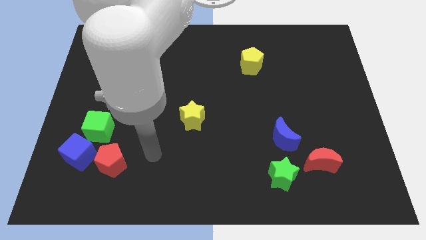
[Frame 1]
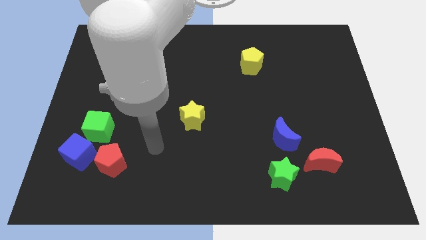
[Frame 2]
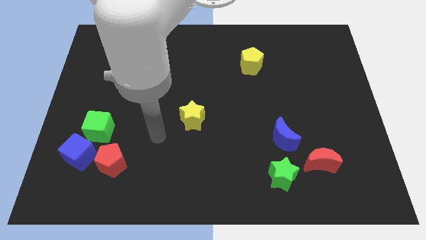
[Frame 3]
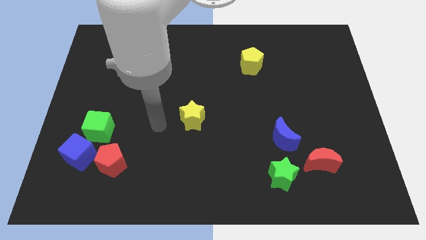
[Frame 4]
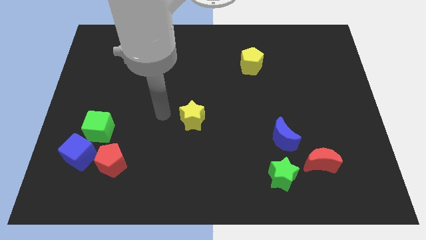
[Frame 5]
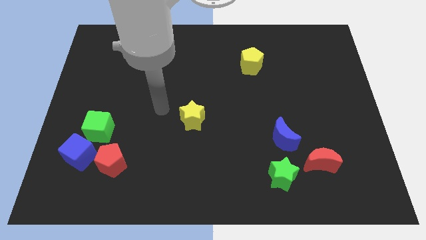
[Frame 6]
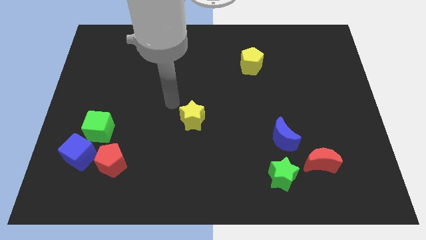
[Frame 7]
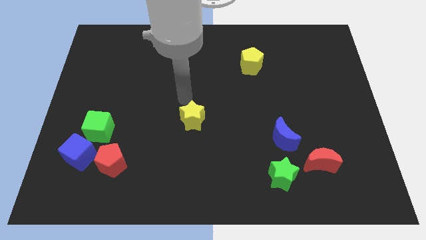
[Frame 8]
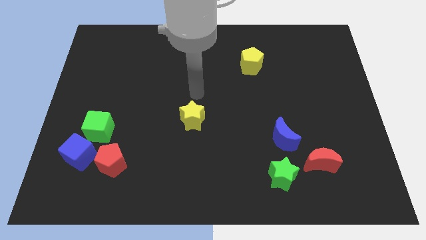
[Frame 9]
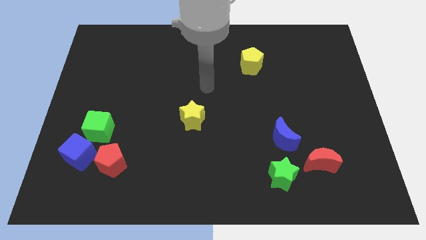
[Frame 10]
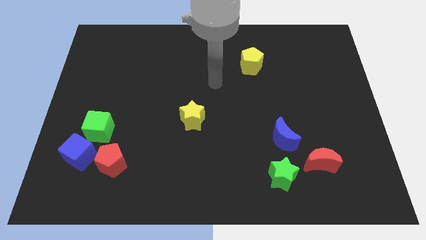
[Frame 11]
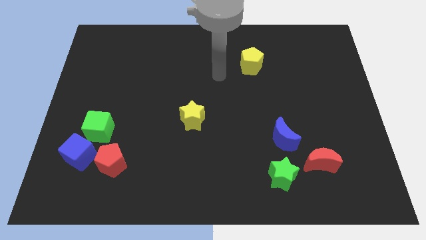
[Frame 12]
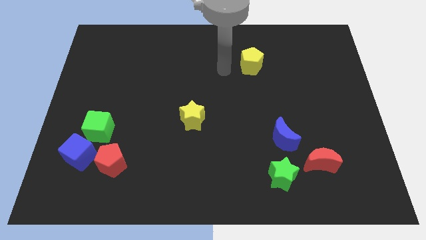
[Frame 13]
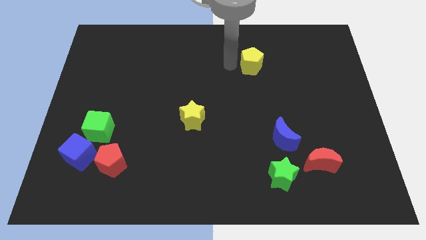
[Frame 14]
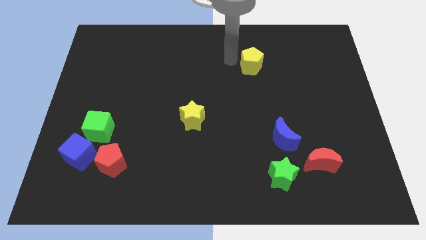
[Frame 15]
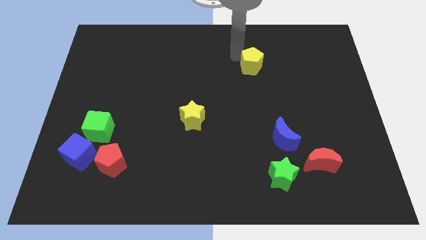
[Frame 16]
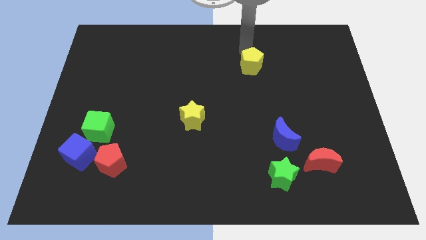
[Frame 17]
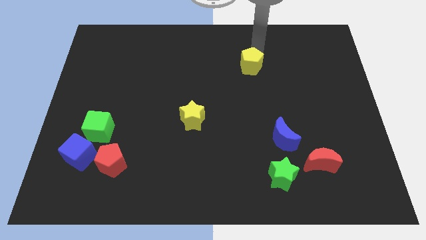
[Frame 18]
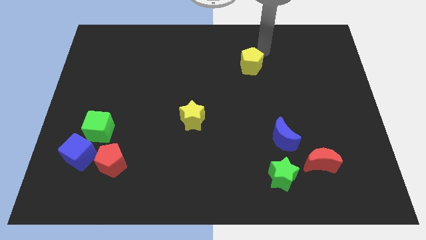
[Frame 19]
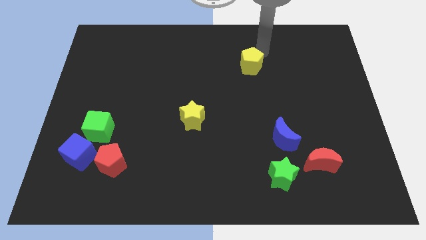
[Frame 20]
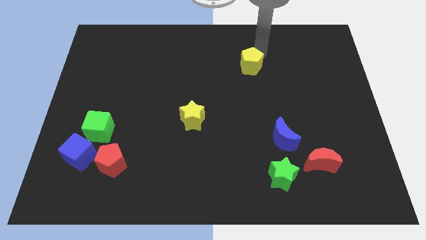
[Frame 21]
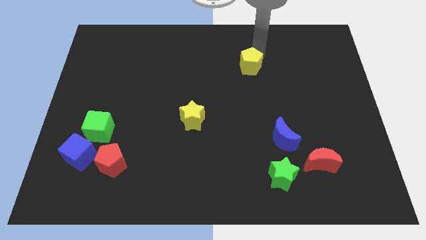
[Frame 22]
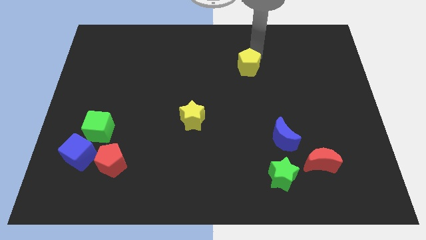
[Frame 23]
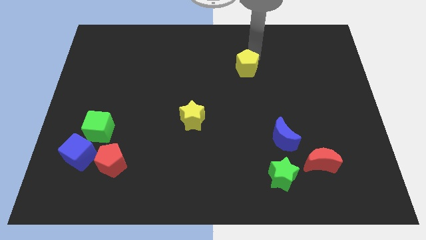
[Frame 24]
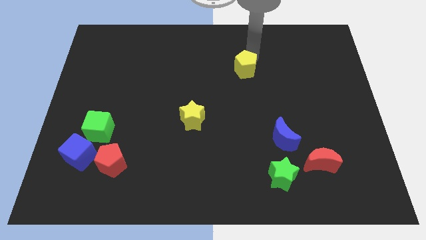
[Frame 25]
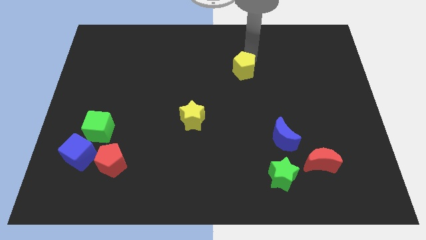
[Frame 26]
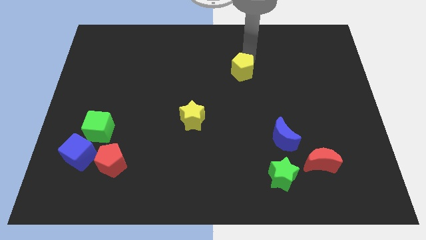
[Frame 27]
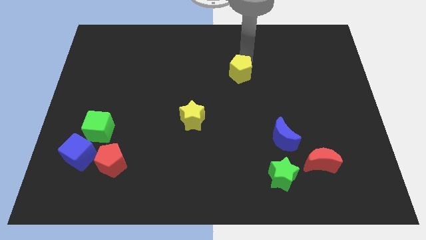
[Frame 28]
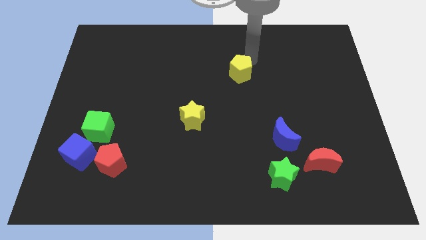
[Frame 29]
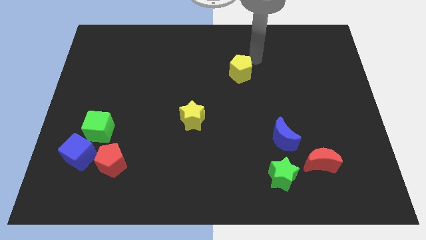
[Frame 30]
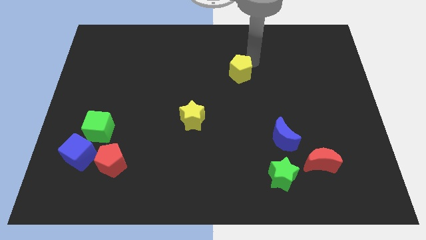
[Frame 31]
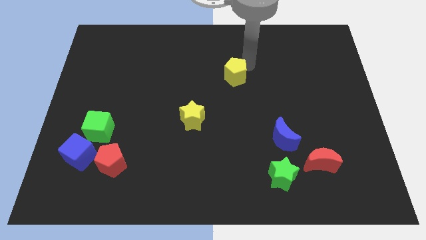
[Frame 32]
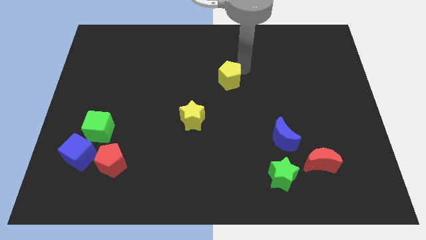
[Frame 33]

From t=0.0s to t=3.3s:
push the yellow pentagon somewhat down and to the left diagonally

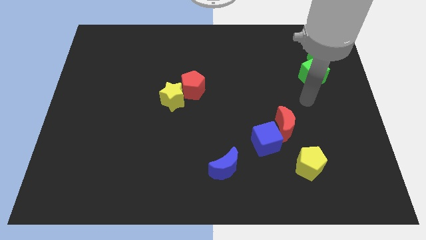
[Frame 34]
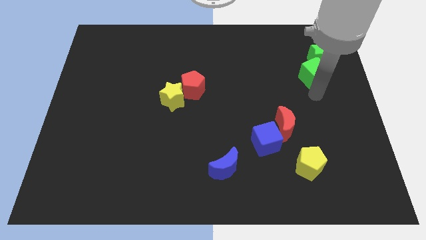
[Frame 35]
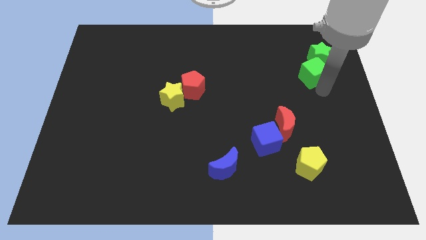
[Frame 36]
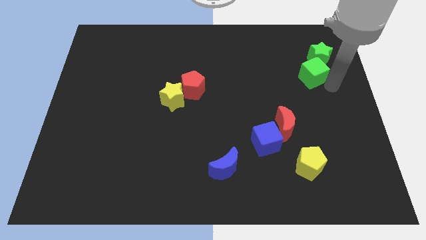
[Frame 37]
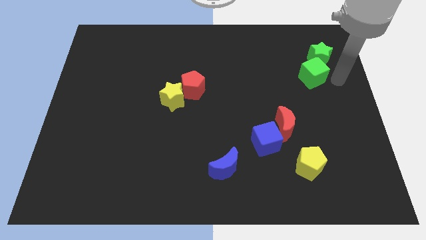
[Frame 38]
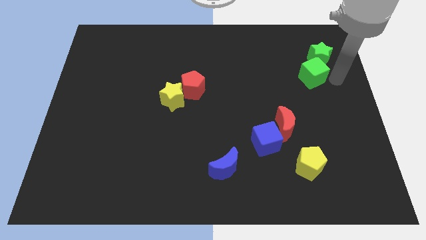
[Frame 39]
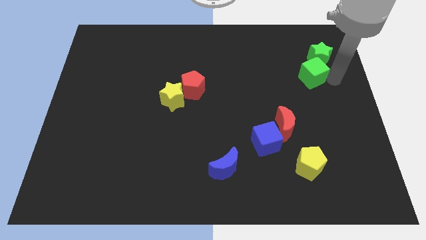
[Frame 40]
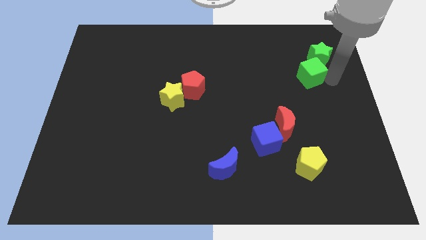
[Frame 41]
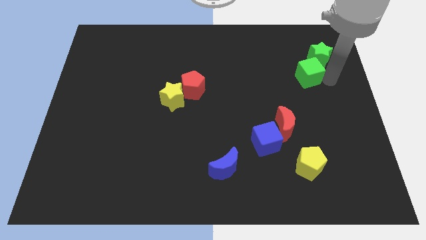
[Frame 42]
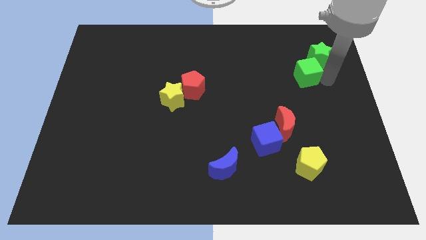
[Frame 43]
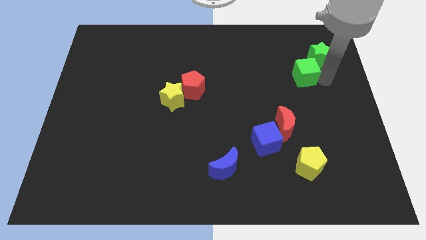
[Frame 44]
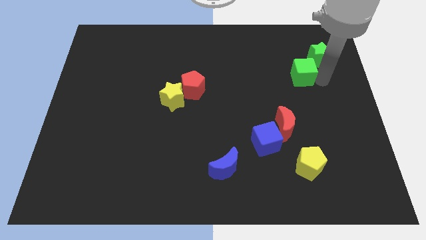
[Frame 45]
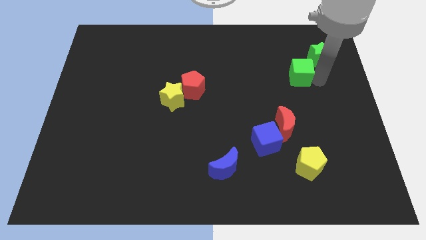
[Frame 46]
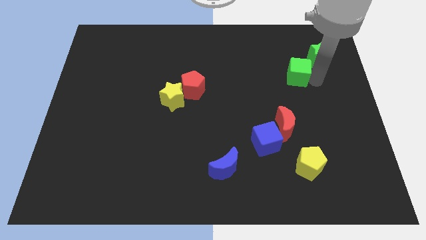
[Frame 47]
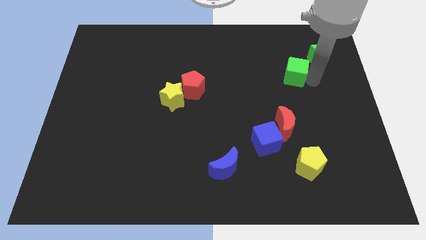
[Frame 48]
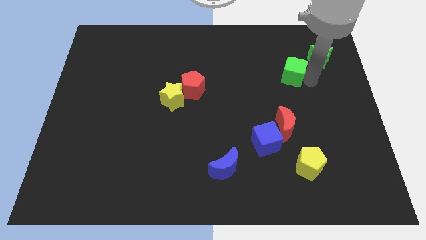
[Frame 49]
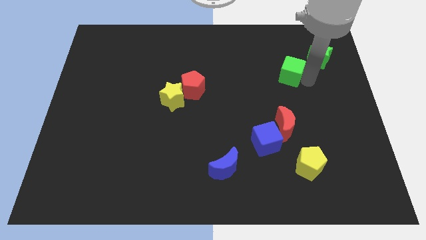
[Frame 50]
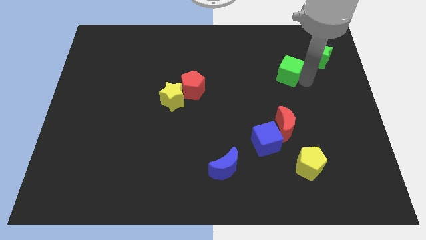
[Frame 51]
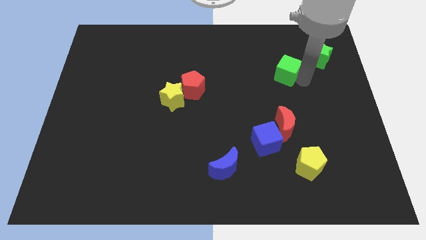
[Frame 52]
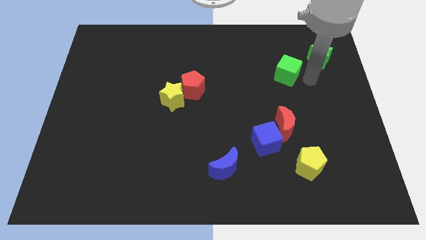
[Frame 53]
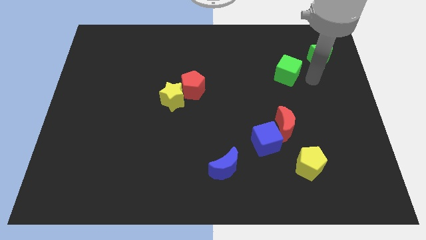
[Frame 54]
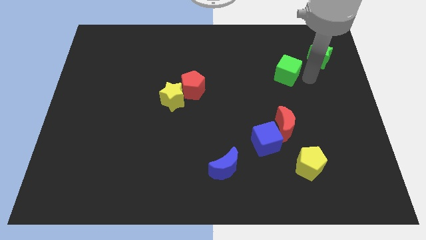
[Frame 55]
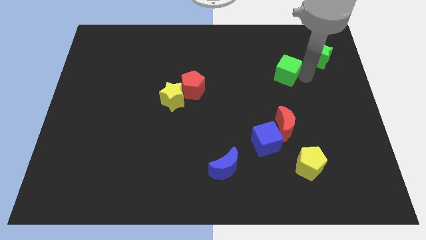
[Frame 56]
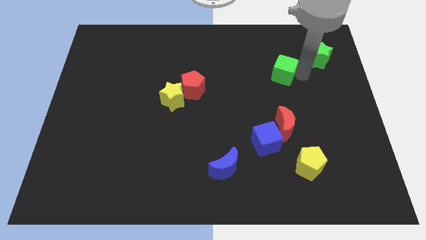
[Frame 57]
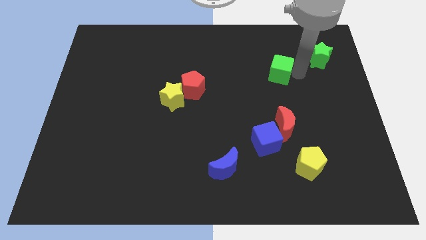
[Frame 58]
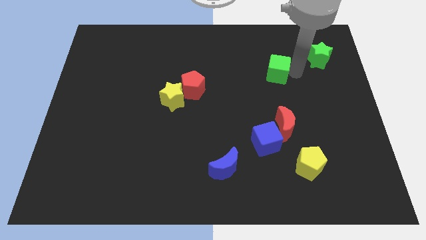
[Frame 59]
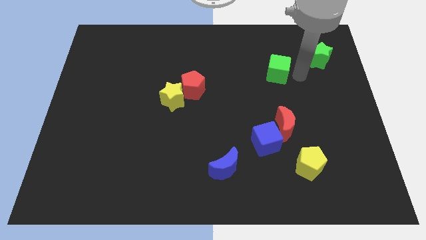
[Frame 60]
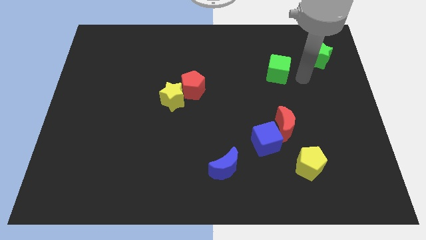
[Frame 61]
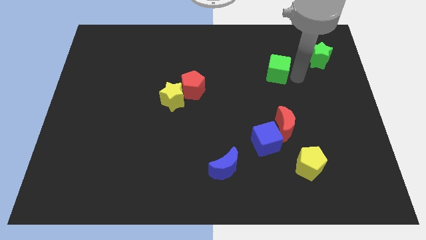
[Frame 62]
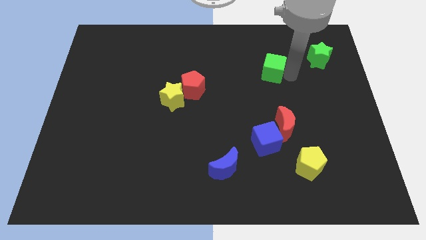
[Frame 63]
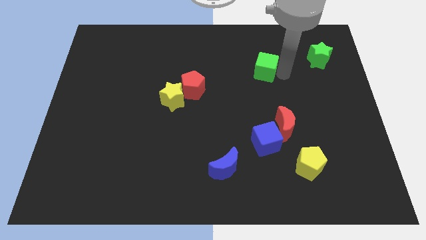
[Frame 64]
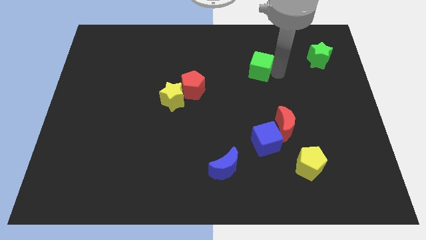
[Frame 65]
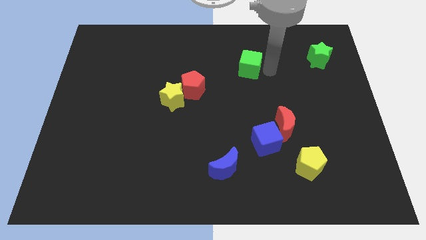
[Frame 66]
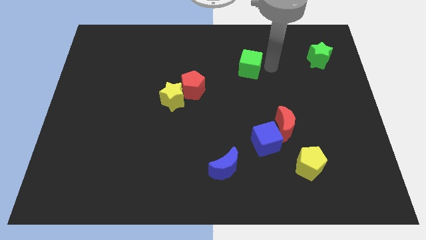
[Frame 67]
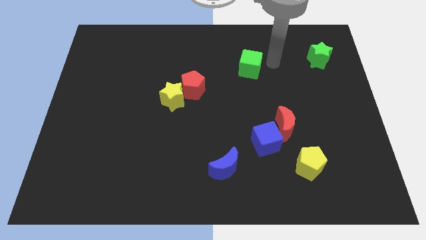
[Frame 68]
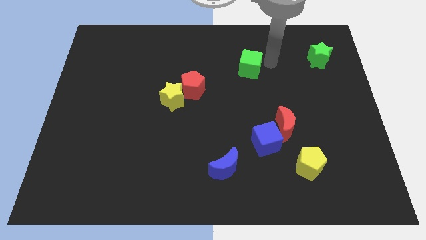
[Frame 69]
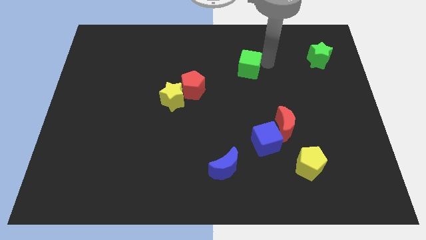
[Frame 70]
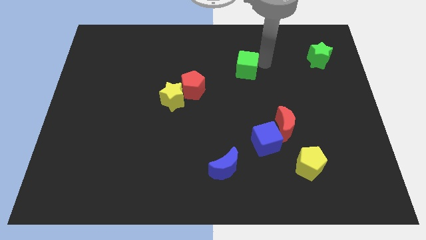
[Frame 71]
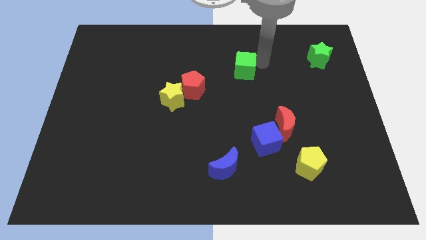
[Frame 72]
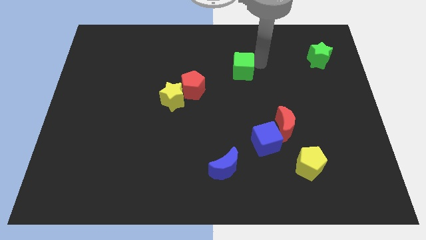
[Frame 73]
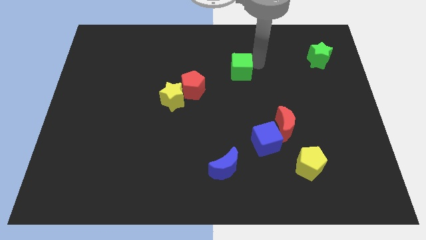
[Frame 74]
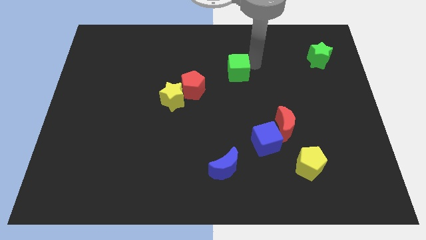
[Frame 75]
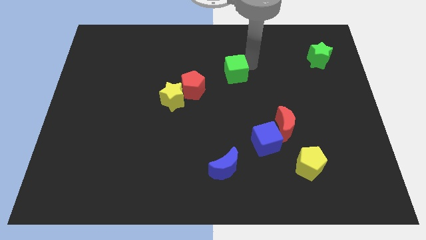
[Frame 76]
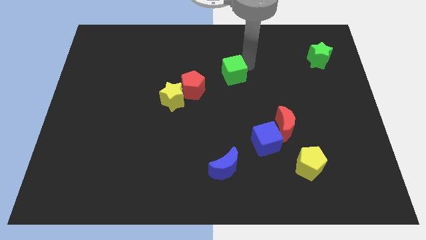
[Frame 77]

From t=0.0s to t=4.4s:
push the green cube left

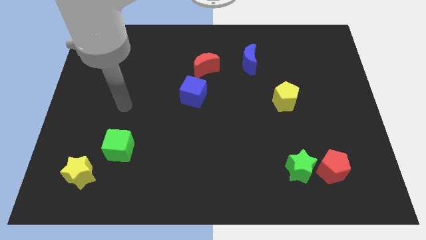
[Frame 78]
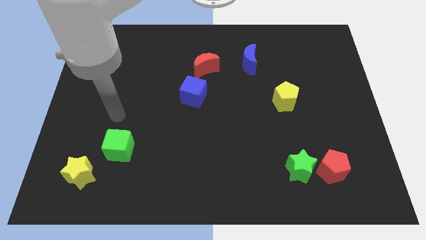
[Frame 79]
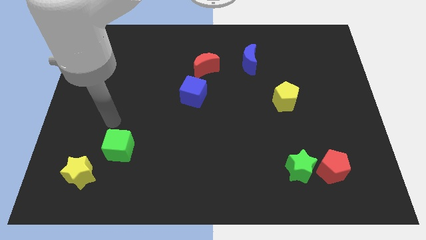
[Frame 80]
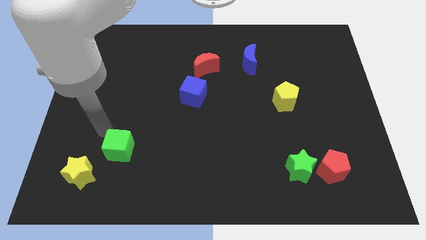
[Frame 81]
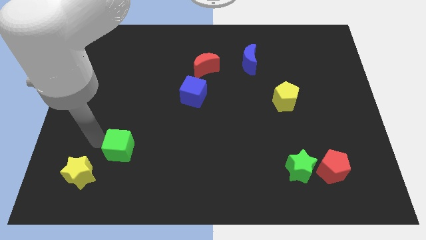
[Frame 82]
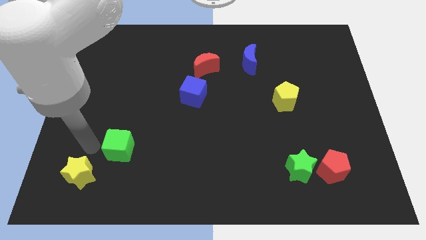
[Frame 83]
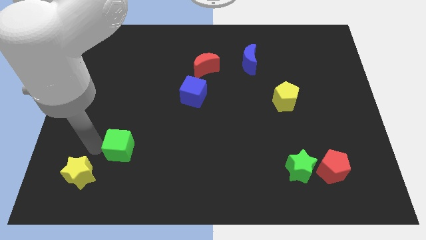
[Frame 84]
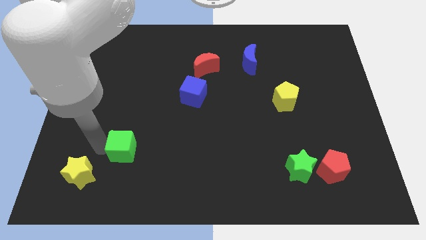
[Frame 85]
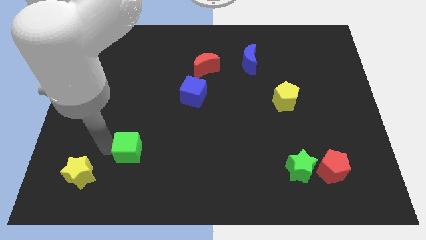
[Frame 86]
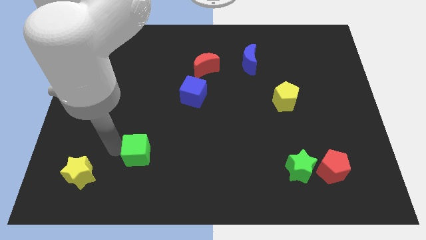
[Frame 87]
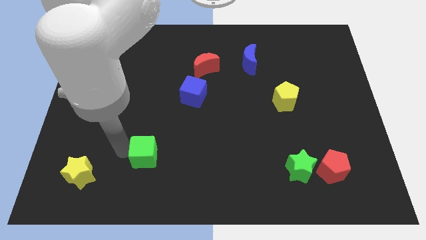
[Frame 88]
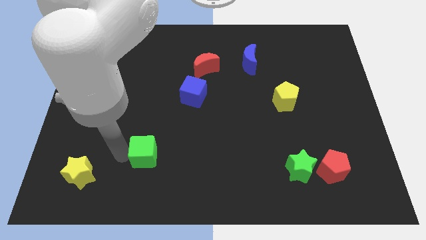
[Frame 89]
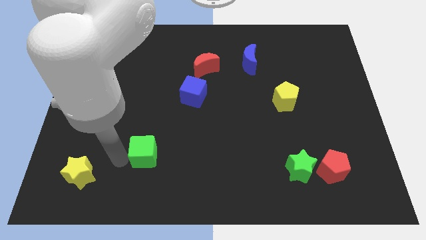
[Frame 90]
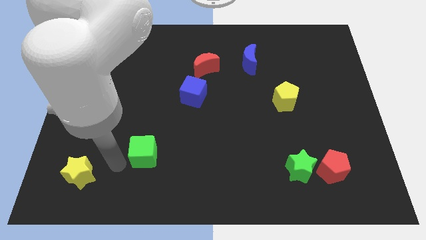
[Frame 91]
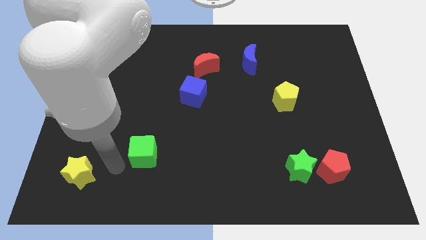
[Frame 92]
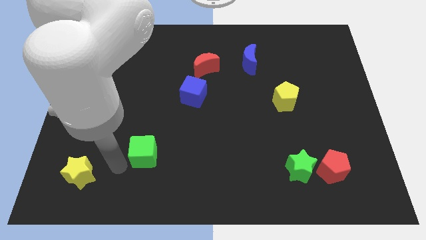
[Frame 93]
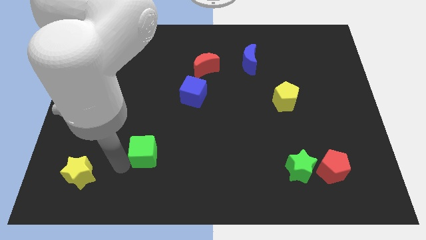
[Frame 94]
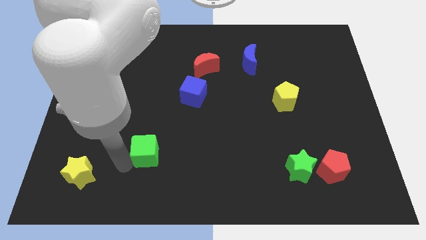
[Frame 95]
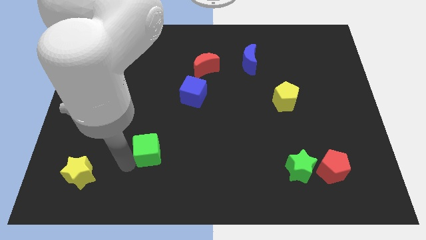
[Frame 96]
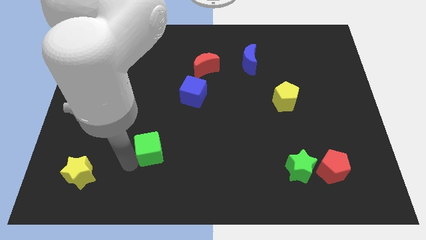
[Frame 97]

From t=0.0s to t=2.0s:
move the green cube to the right a little
